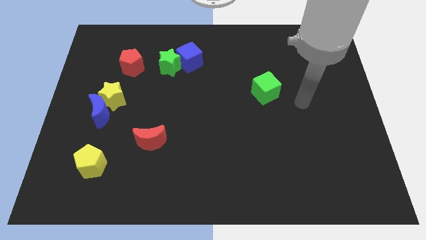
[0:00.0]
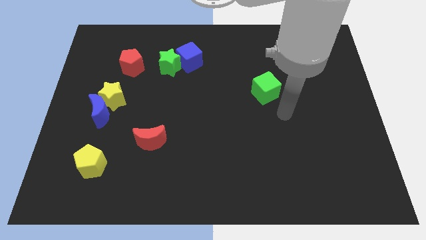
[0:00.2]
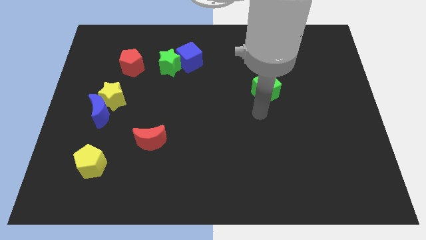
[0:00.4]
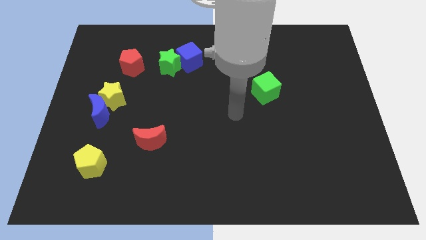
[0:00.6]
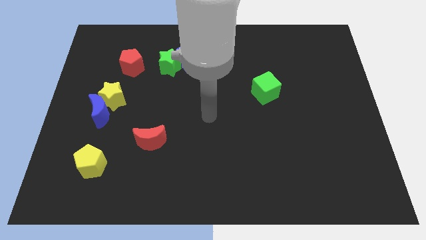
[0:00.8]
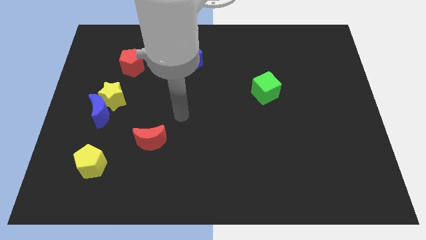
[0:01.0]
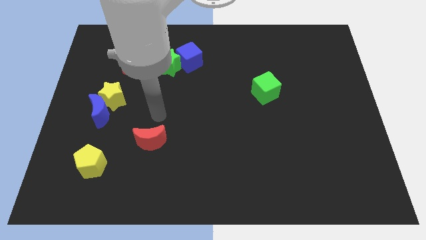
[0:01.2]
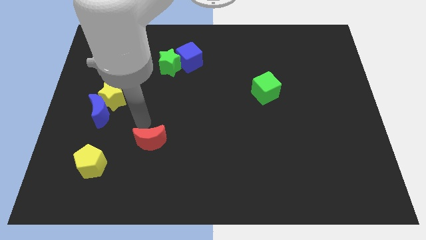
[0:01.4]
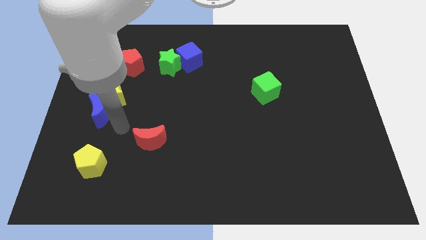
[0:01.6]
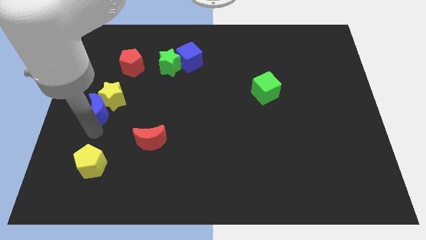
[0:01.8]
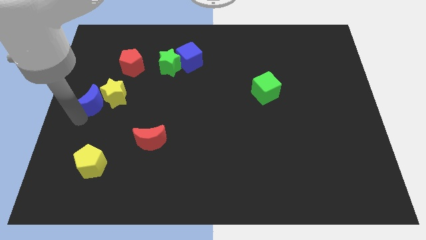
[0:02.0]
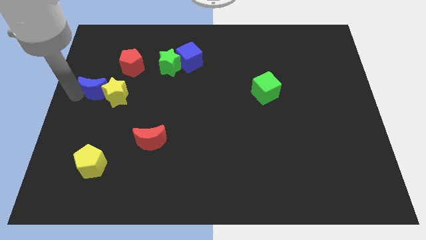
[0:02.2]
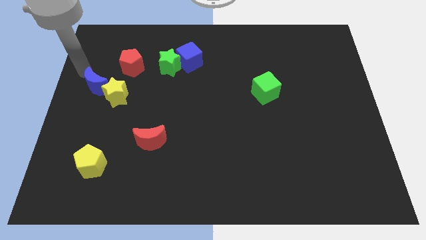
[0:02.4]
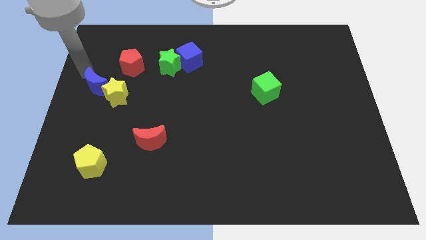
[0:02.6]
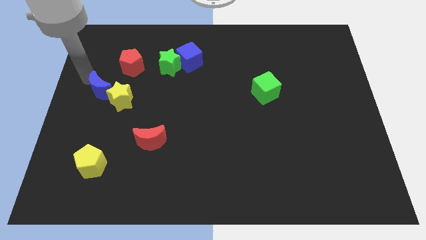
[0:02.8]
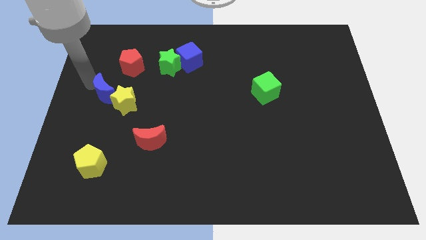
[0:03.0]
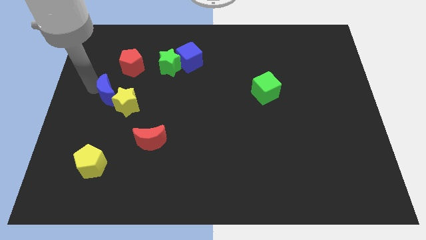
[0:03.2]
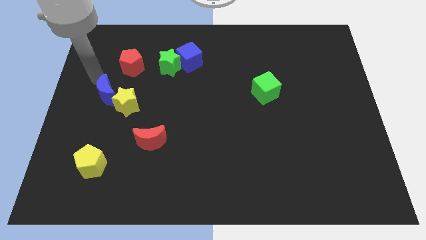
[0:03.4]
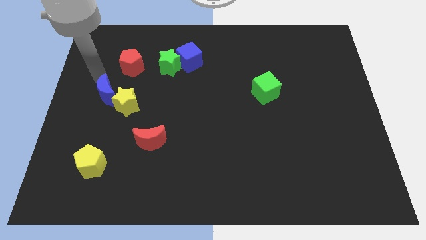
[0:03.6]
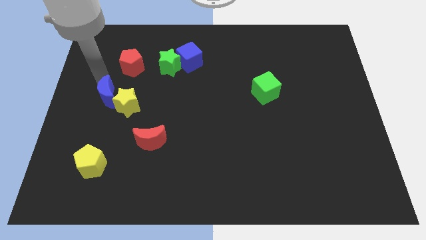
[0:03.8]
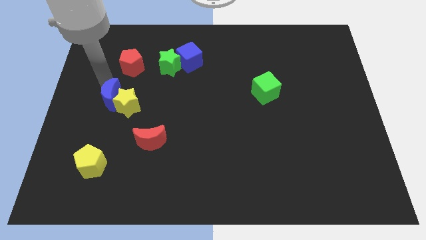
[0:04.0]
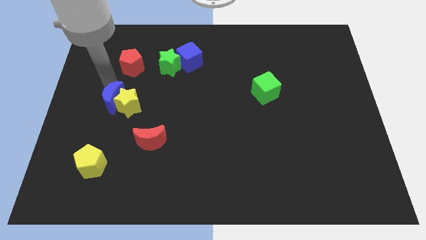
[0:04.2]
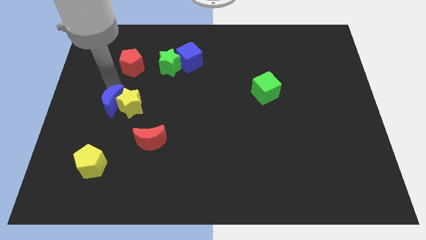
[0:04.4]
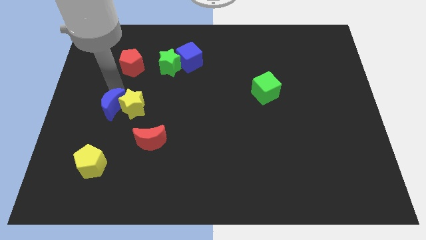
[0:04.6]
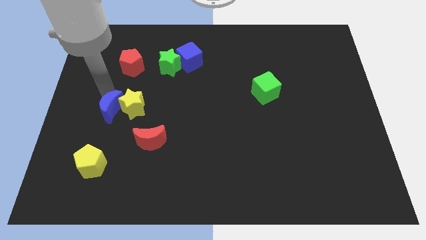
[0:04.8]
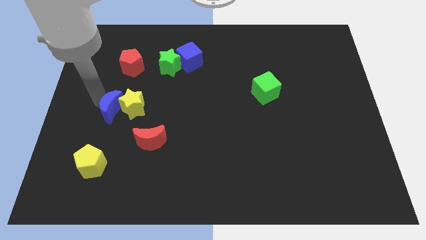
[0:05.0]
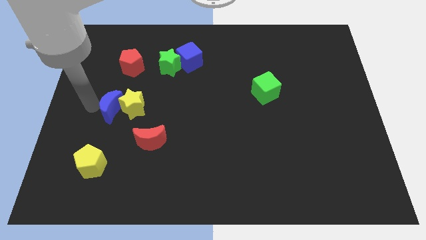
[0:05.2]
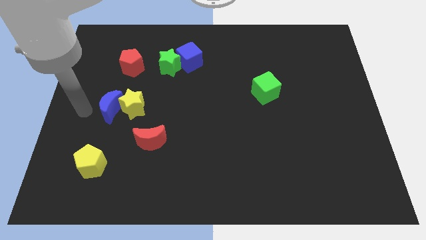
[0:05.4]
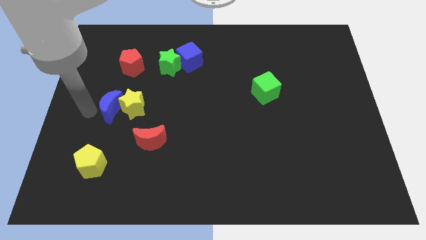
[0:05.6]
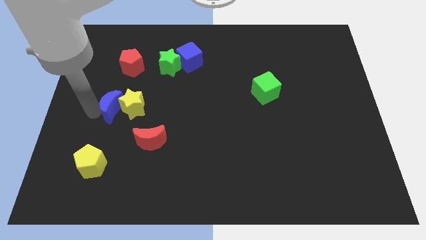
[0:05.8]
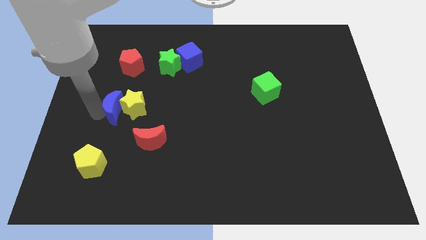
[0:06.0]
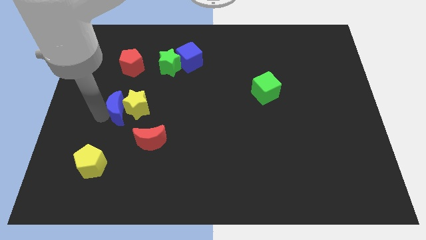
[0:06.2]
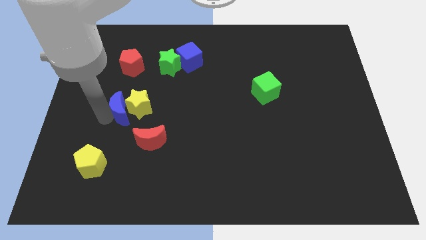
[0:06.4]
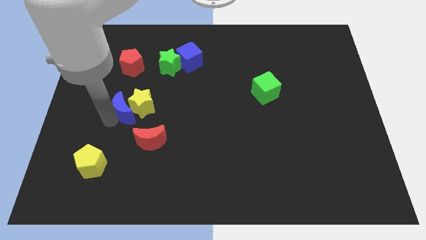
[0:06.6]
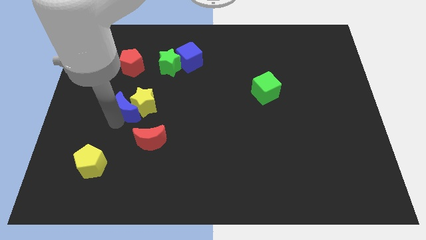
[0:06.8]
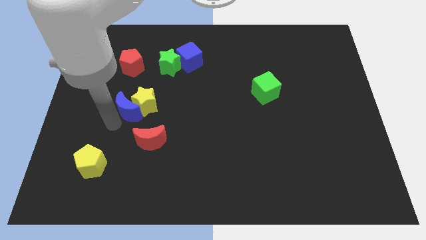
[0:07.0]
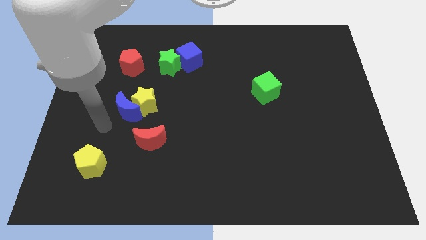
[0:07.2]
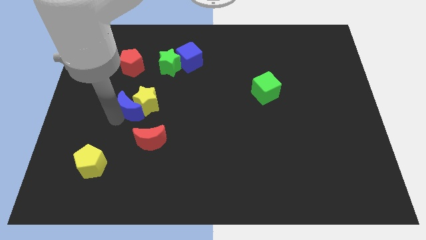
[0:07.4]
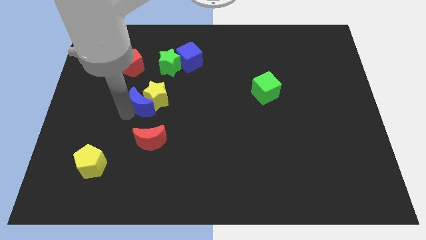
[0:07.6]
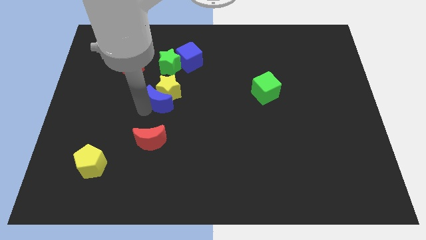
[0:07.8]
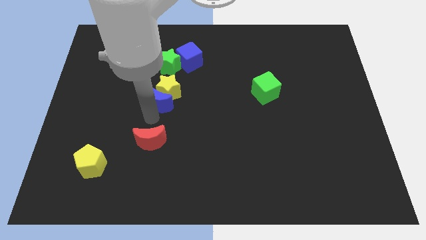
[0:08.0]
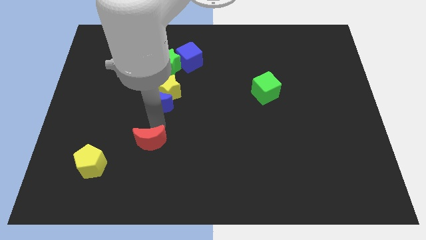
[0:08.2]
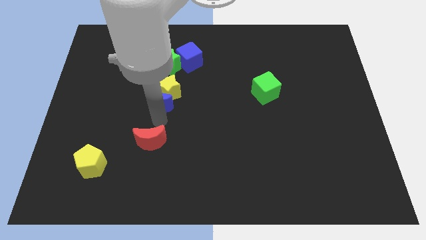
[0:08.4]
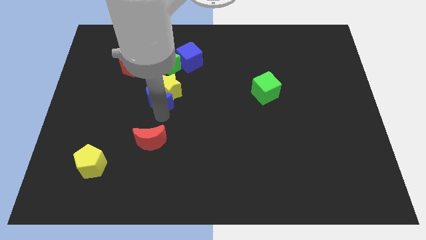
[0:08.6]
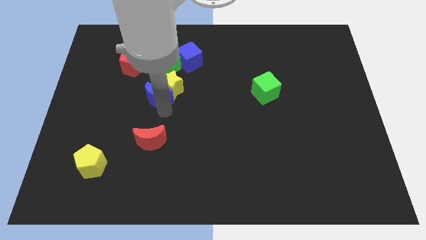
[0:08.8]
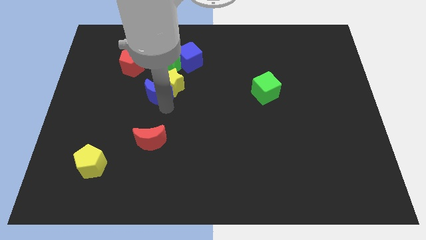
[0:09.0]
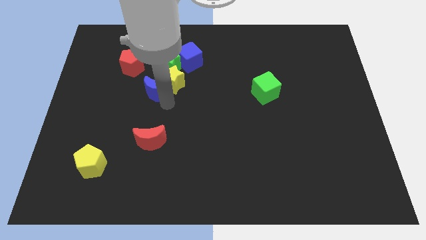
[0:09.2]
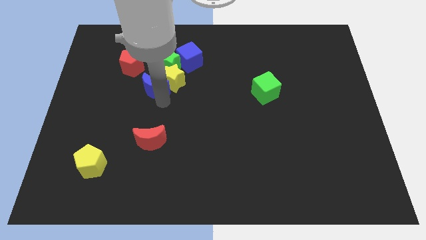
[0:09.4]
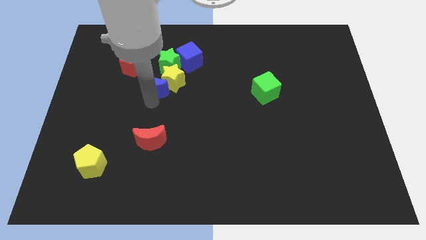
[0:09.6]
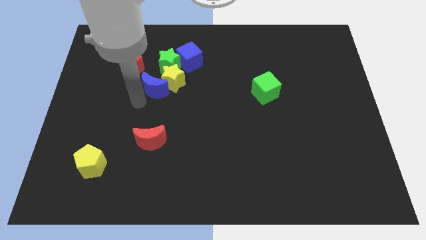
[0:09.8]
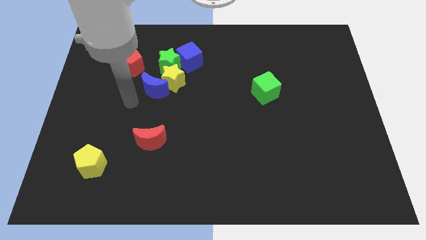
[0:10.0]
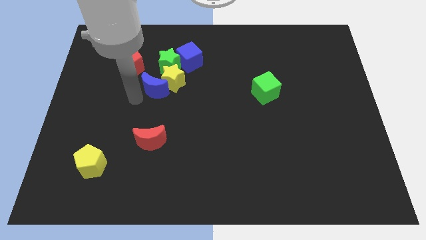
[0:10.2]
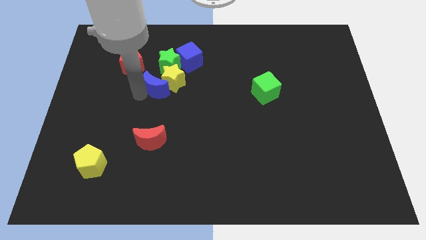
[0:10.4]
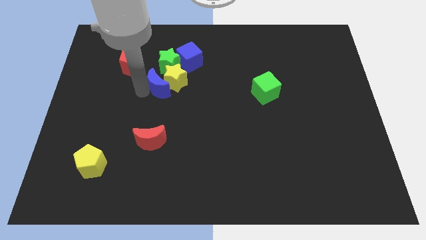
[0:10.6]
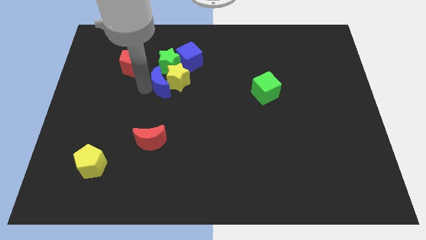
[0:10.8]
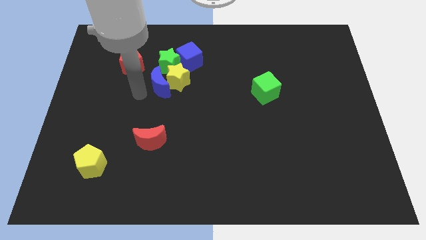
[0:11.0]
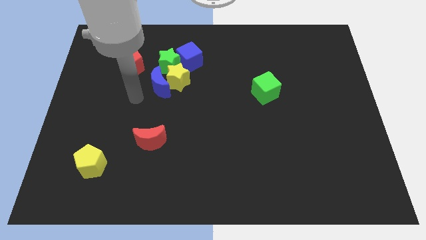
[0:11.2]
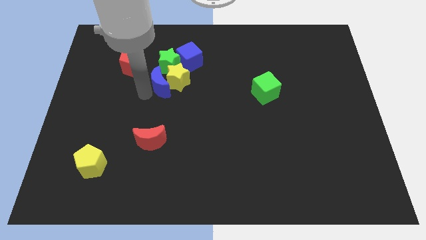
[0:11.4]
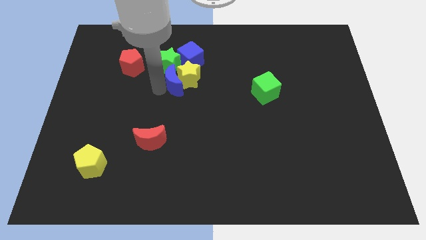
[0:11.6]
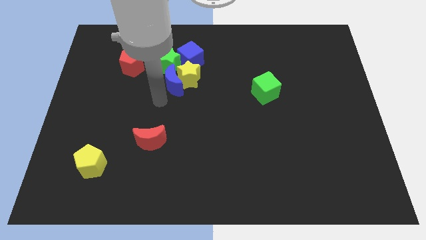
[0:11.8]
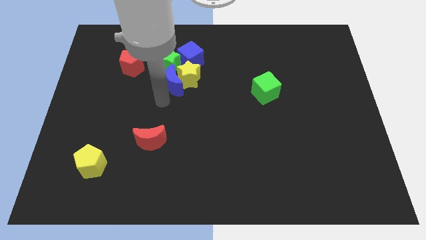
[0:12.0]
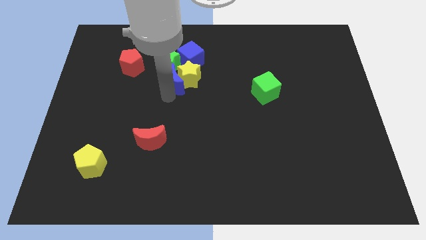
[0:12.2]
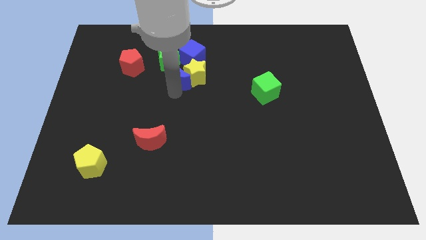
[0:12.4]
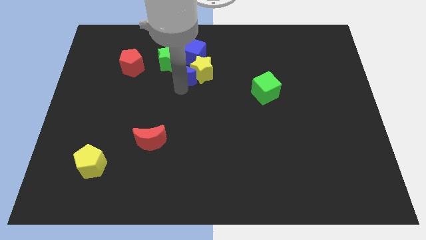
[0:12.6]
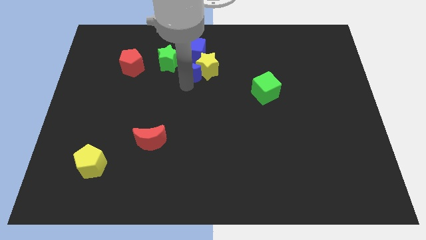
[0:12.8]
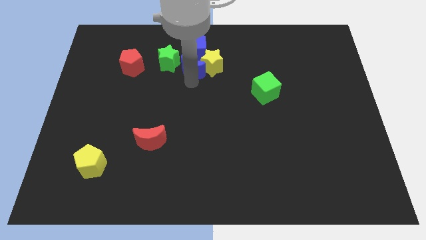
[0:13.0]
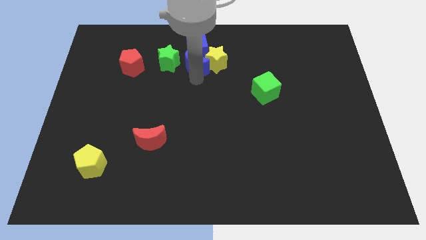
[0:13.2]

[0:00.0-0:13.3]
push the blue moon to the blue cube
